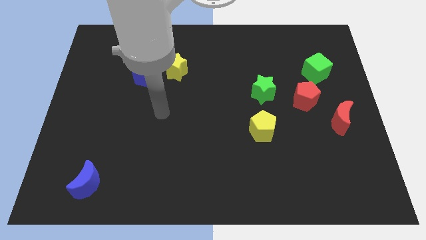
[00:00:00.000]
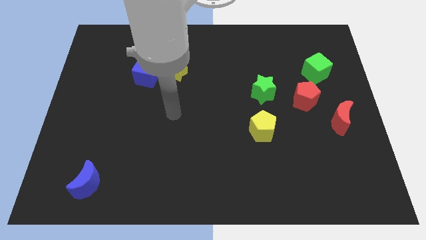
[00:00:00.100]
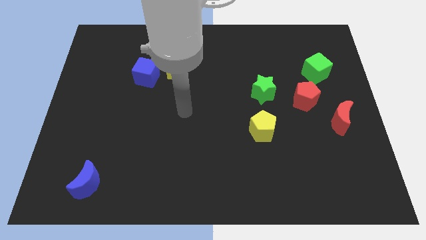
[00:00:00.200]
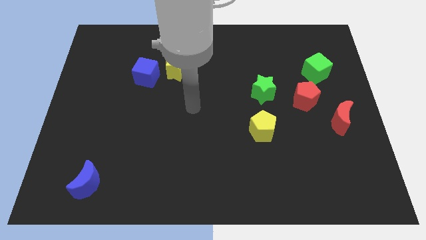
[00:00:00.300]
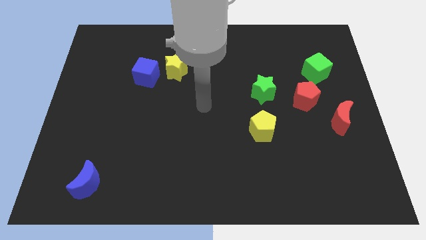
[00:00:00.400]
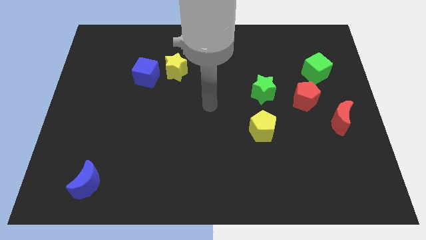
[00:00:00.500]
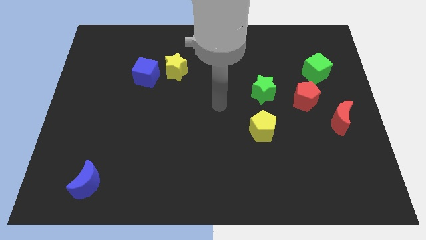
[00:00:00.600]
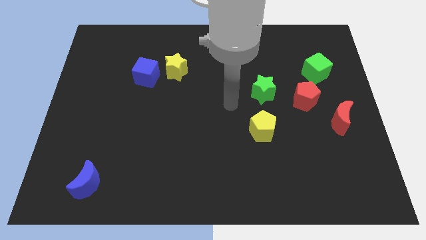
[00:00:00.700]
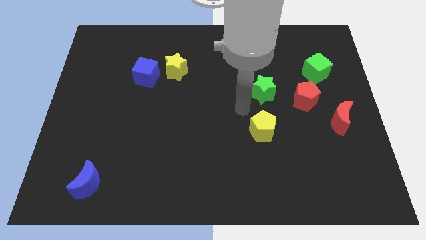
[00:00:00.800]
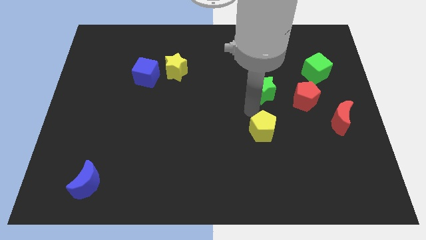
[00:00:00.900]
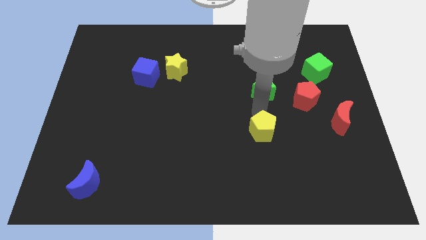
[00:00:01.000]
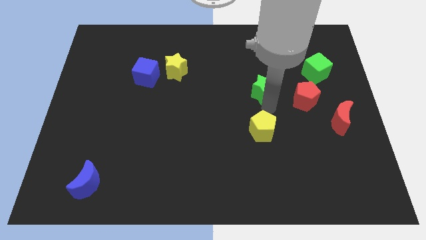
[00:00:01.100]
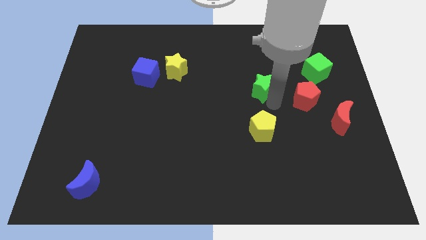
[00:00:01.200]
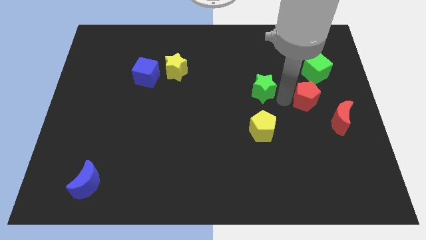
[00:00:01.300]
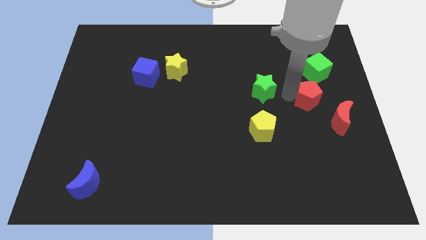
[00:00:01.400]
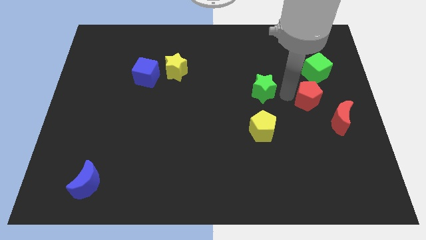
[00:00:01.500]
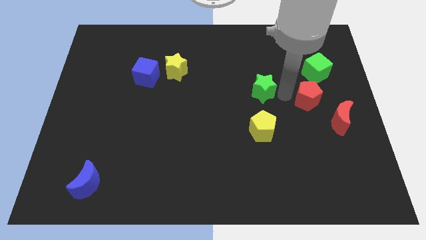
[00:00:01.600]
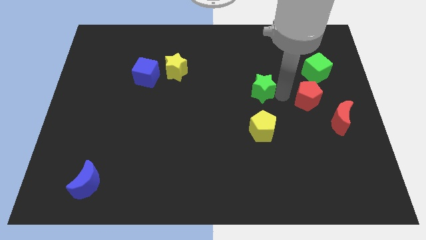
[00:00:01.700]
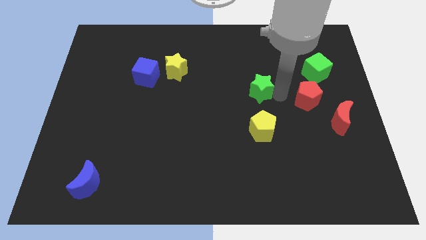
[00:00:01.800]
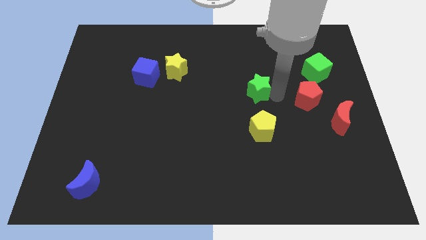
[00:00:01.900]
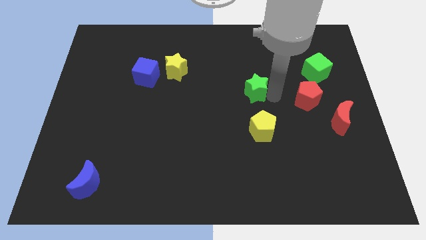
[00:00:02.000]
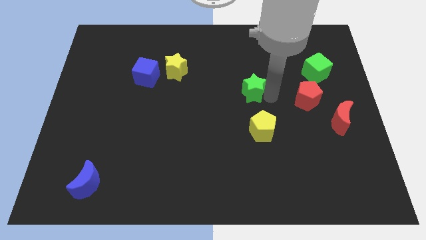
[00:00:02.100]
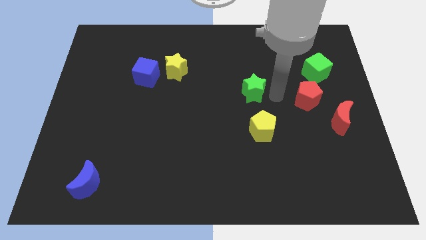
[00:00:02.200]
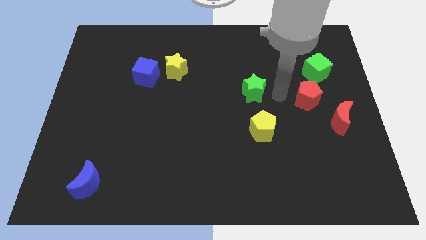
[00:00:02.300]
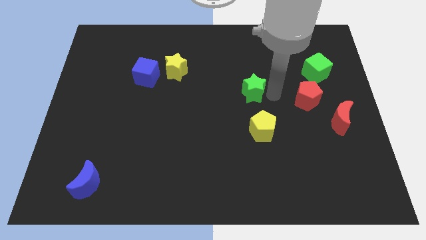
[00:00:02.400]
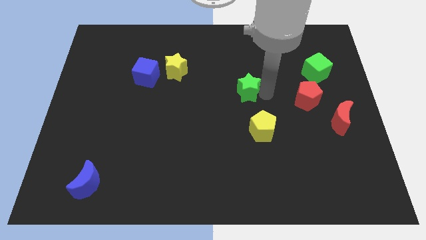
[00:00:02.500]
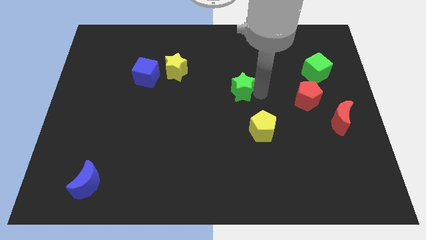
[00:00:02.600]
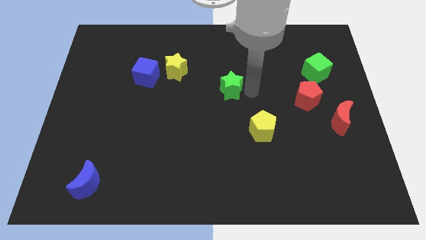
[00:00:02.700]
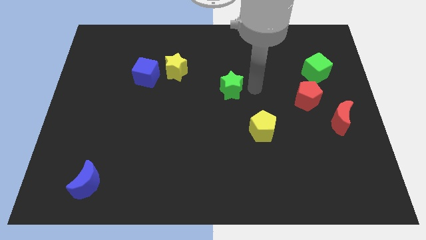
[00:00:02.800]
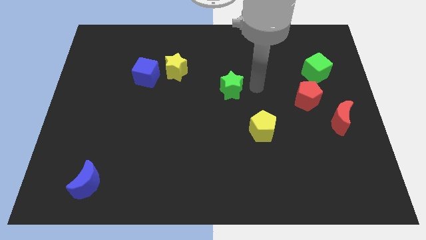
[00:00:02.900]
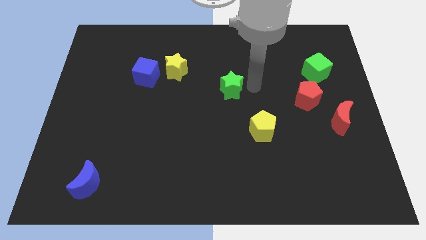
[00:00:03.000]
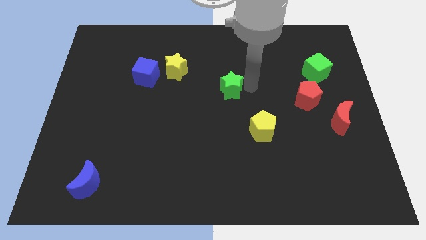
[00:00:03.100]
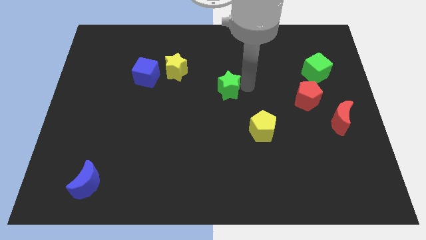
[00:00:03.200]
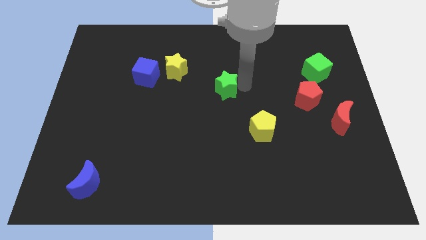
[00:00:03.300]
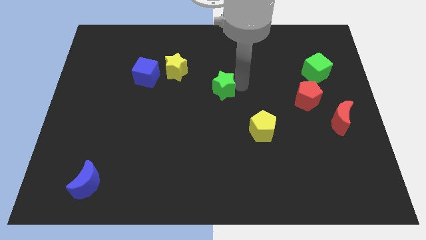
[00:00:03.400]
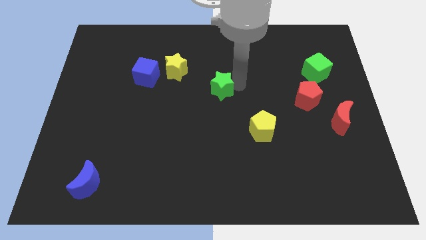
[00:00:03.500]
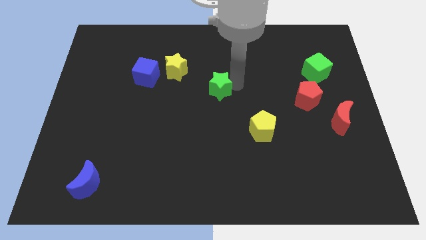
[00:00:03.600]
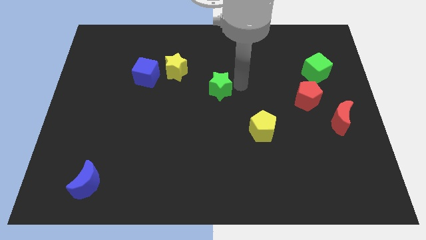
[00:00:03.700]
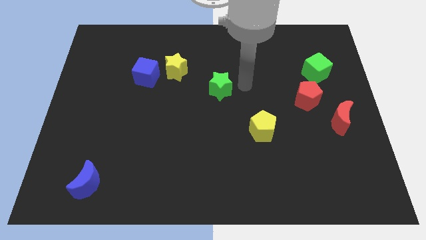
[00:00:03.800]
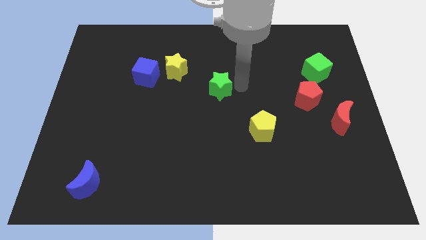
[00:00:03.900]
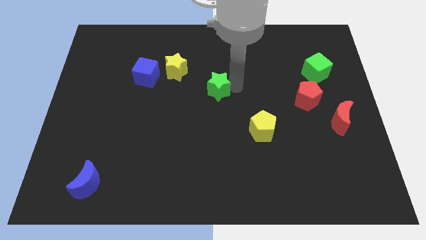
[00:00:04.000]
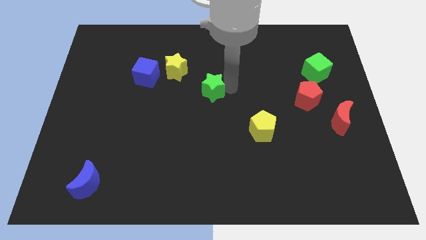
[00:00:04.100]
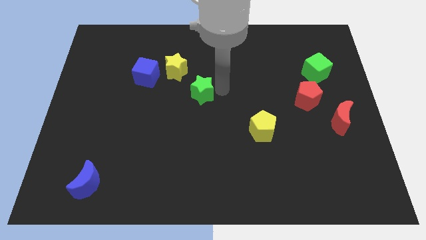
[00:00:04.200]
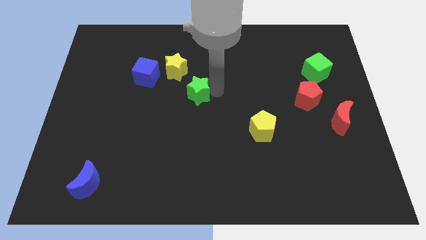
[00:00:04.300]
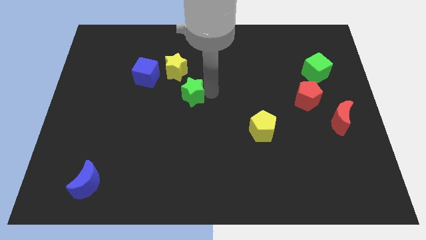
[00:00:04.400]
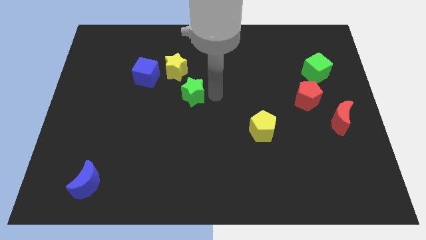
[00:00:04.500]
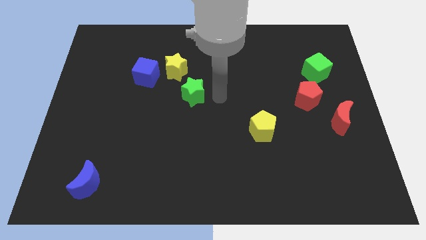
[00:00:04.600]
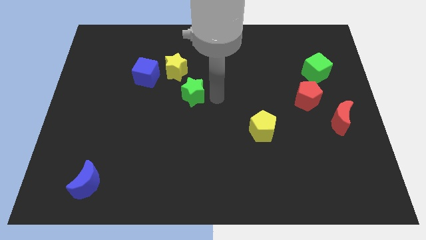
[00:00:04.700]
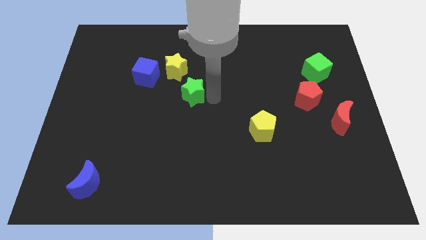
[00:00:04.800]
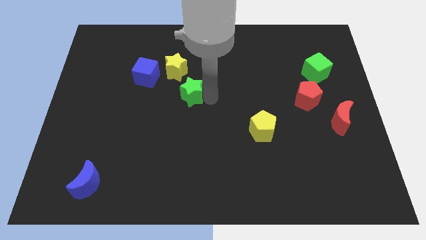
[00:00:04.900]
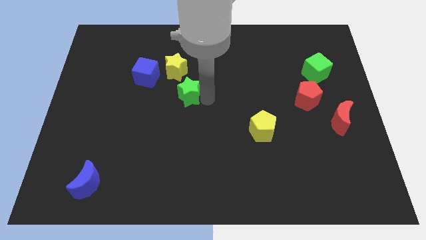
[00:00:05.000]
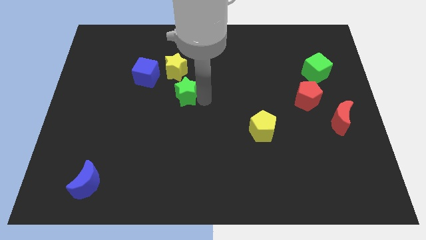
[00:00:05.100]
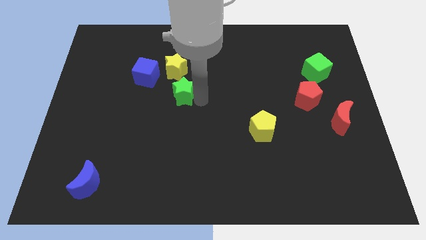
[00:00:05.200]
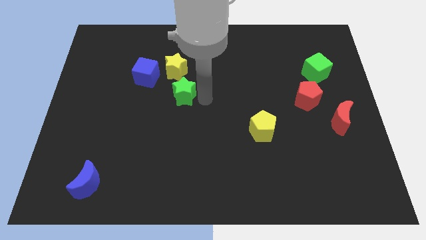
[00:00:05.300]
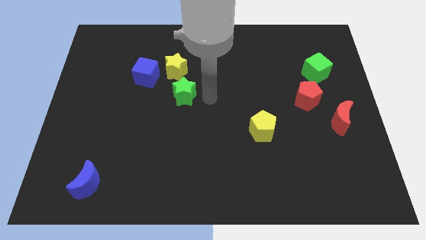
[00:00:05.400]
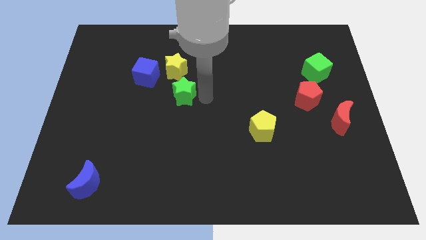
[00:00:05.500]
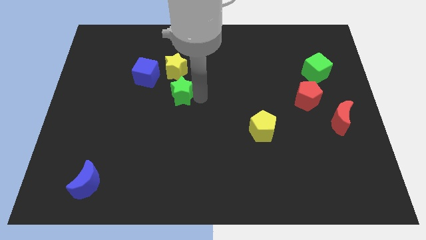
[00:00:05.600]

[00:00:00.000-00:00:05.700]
slide the green star to the left

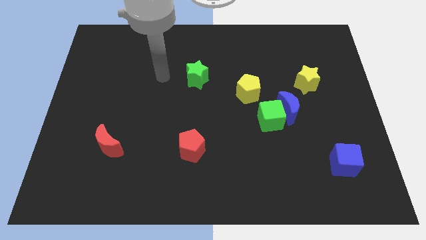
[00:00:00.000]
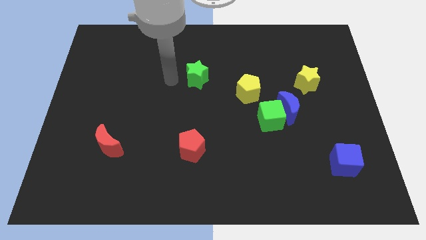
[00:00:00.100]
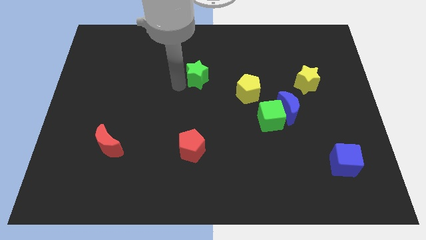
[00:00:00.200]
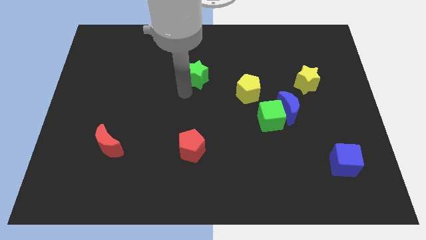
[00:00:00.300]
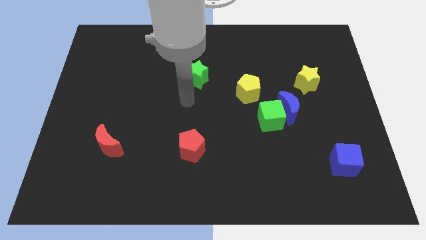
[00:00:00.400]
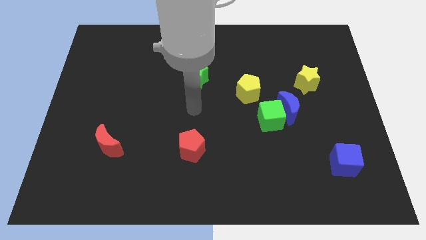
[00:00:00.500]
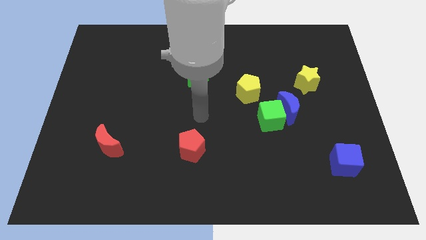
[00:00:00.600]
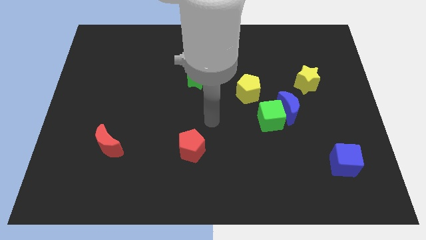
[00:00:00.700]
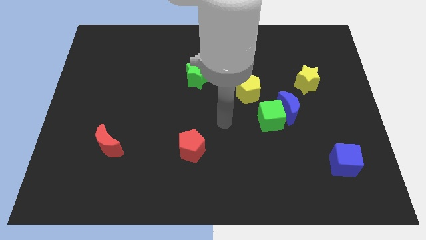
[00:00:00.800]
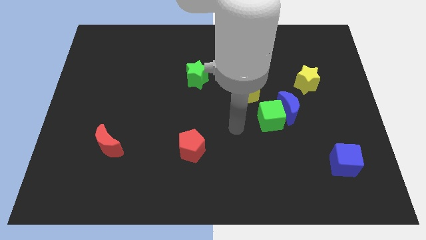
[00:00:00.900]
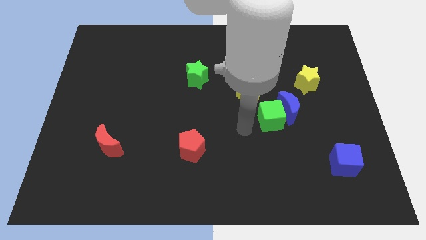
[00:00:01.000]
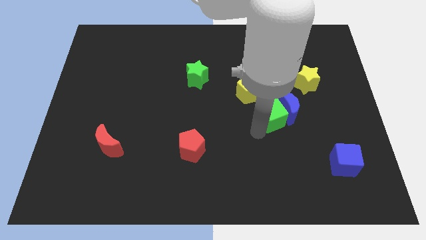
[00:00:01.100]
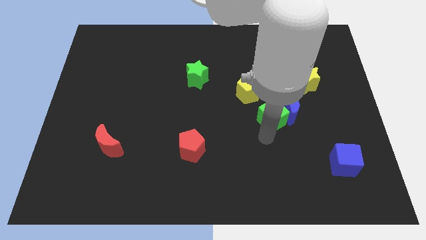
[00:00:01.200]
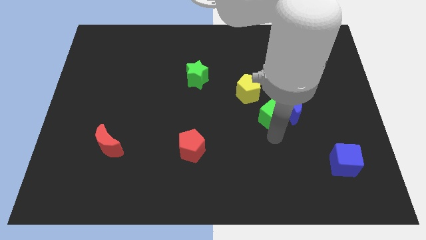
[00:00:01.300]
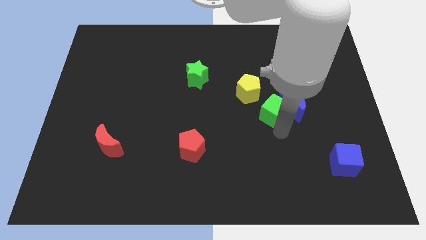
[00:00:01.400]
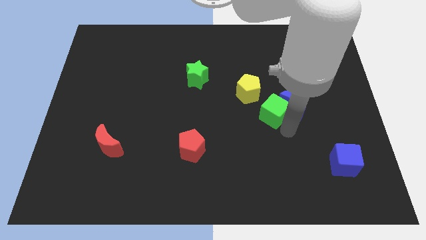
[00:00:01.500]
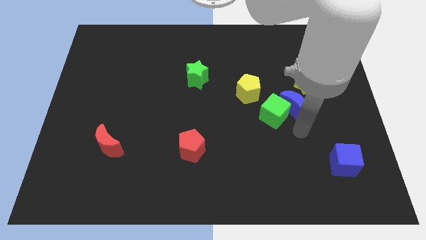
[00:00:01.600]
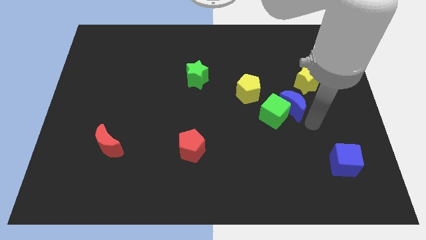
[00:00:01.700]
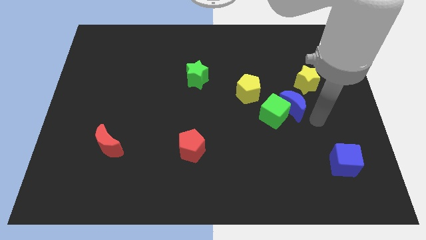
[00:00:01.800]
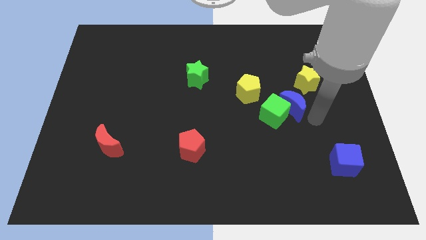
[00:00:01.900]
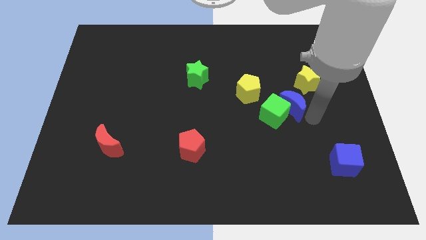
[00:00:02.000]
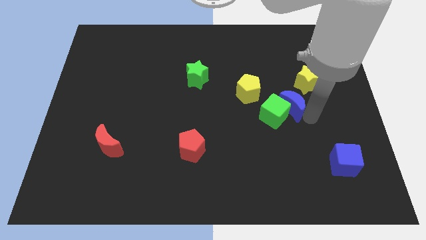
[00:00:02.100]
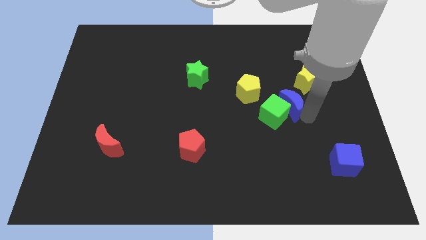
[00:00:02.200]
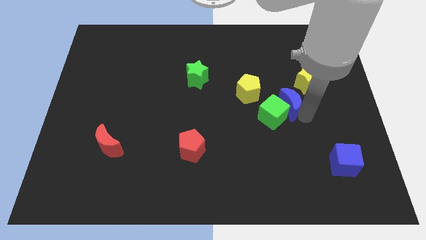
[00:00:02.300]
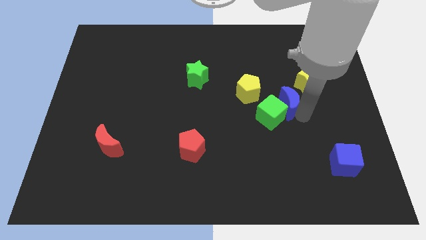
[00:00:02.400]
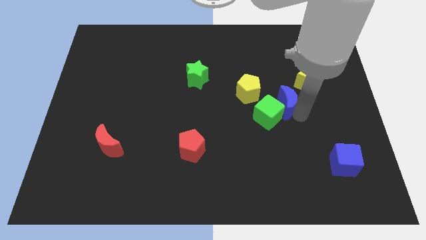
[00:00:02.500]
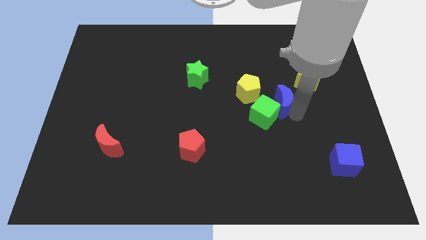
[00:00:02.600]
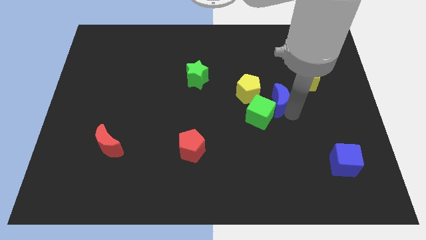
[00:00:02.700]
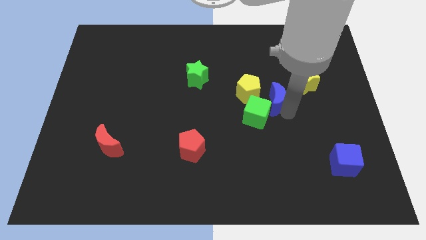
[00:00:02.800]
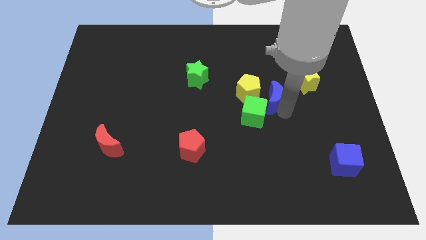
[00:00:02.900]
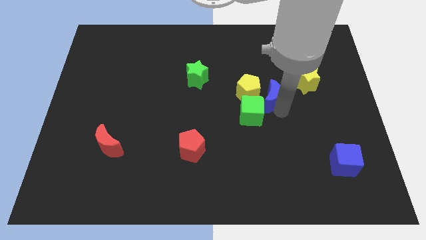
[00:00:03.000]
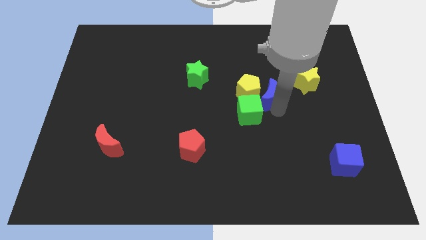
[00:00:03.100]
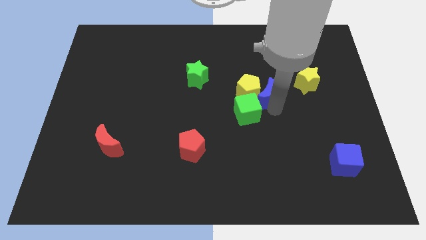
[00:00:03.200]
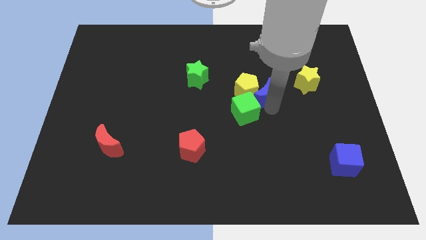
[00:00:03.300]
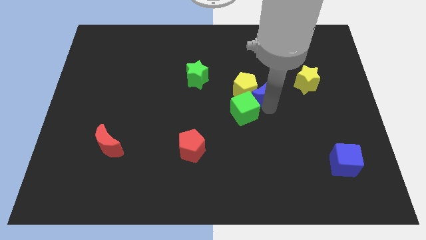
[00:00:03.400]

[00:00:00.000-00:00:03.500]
push the blue moon up and then left a little
